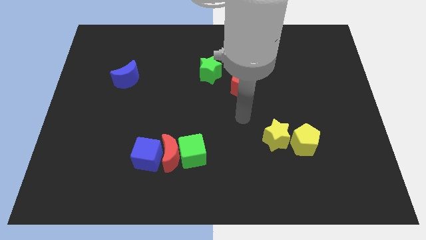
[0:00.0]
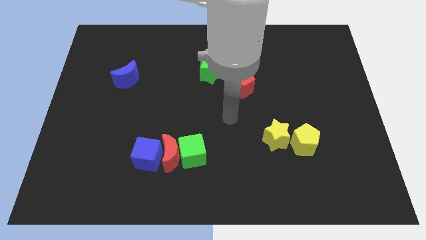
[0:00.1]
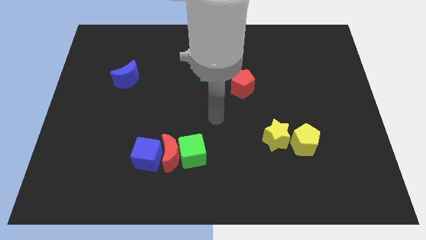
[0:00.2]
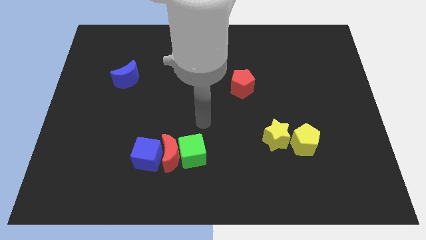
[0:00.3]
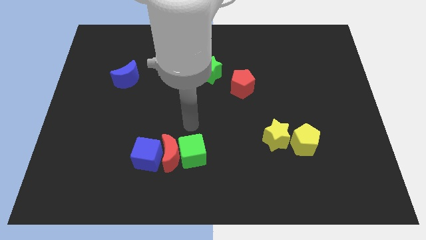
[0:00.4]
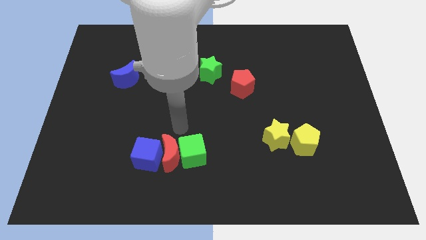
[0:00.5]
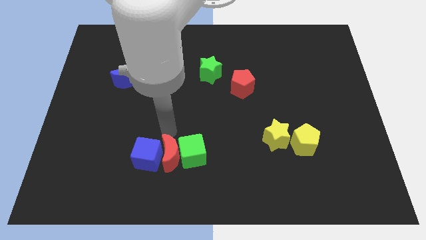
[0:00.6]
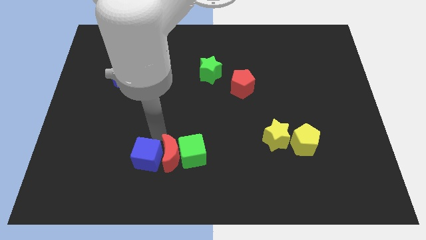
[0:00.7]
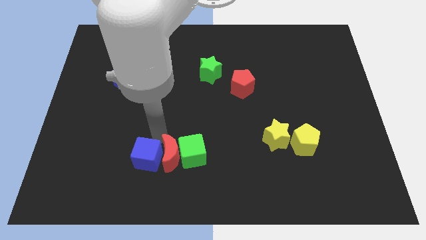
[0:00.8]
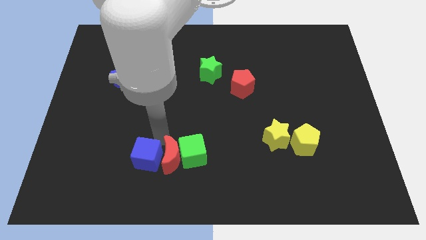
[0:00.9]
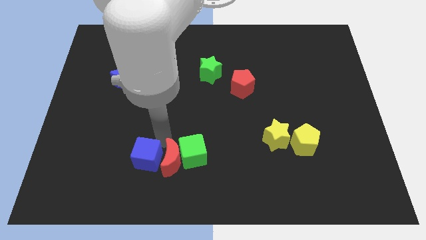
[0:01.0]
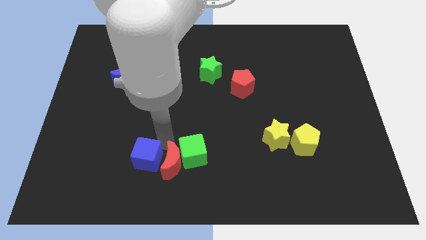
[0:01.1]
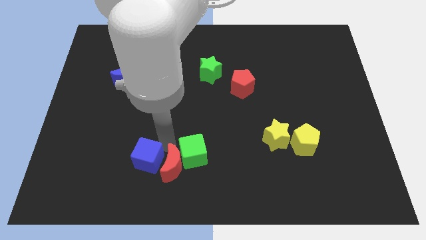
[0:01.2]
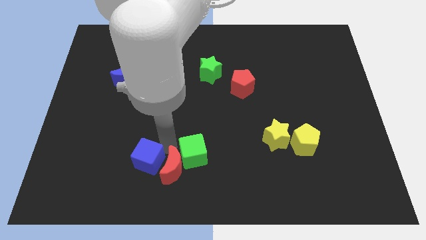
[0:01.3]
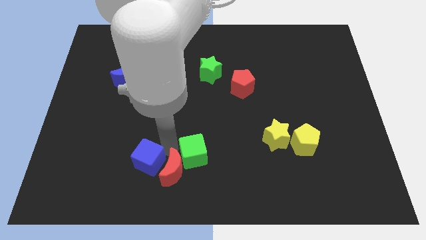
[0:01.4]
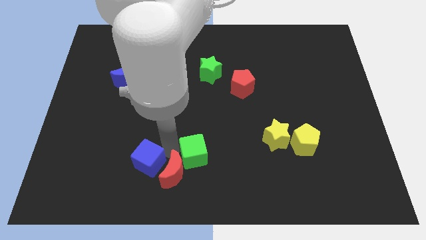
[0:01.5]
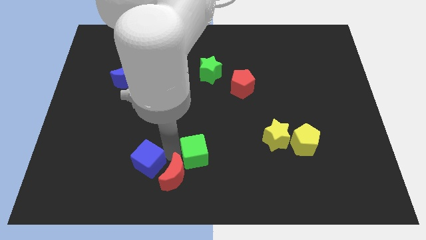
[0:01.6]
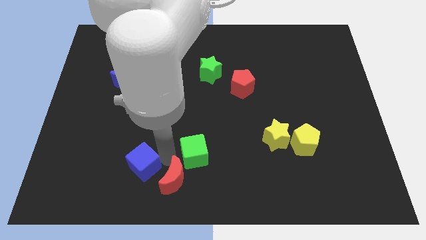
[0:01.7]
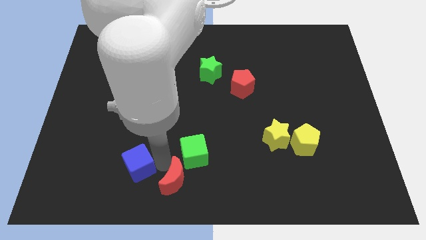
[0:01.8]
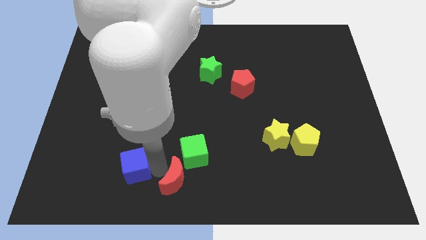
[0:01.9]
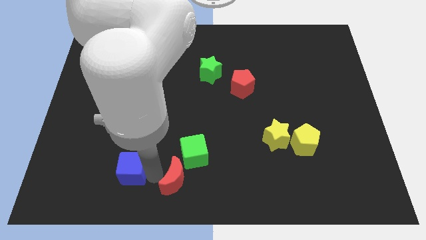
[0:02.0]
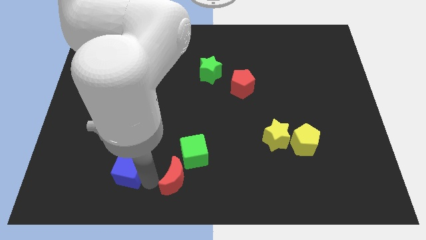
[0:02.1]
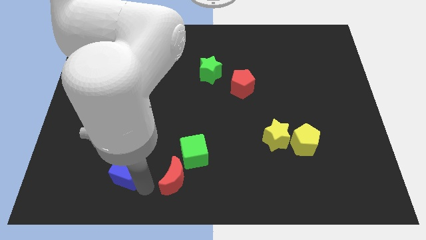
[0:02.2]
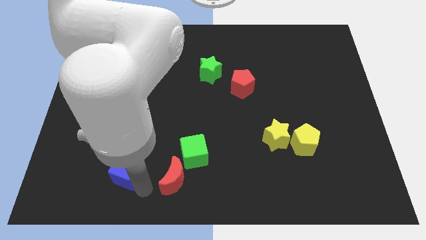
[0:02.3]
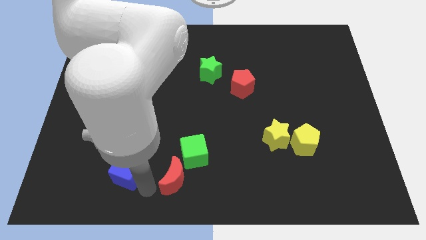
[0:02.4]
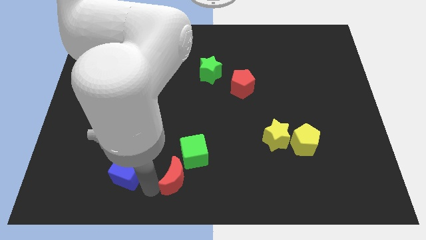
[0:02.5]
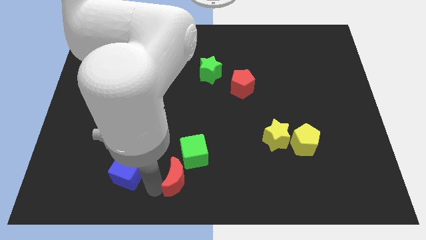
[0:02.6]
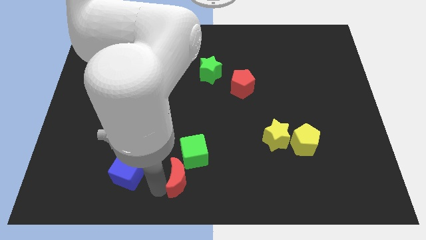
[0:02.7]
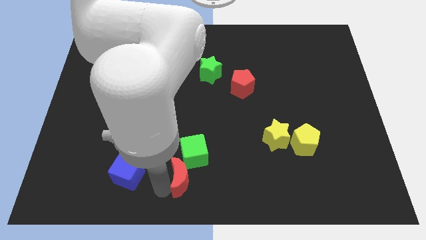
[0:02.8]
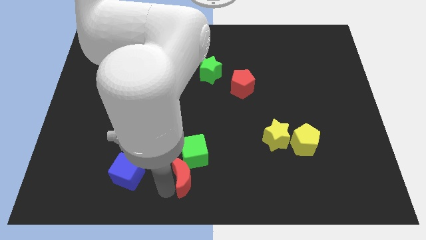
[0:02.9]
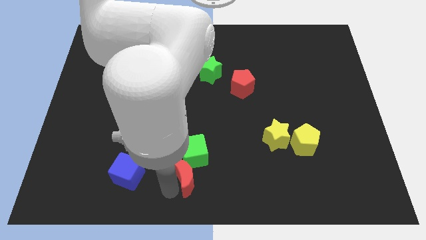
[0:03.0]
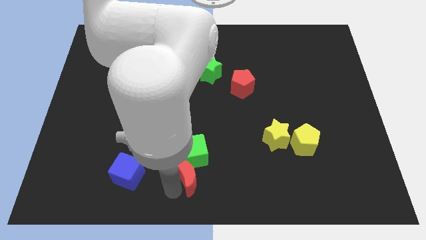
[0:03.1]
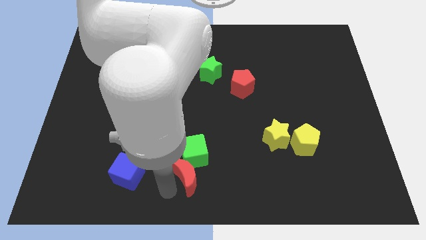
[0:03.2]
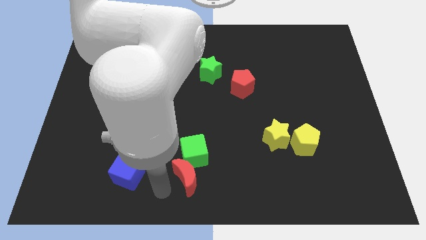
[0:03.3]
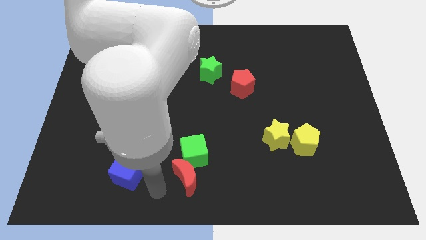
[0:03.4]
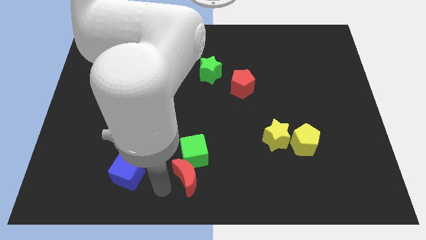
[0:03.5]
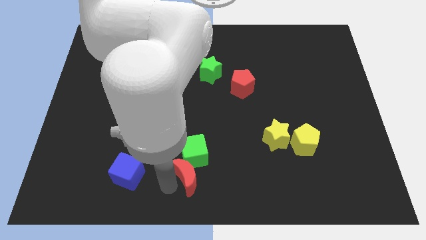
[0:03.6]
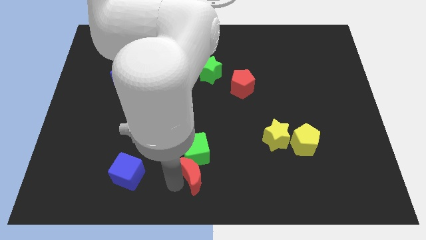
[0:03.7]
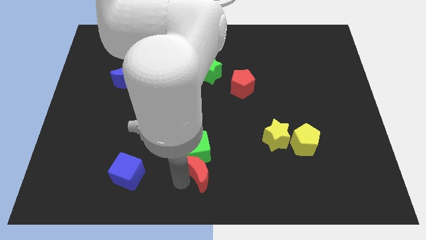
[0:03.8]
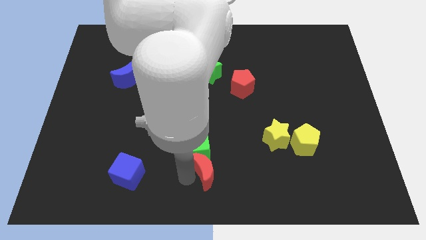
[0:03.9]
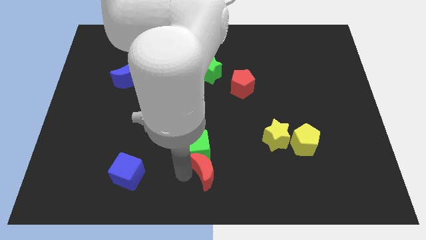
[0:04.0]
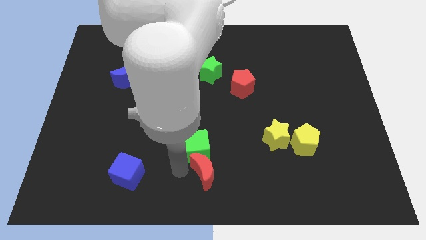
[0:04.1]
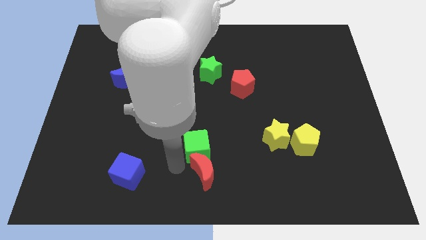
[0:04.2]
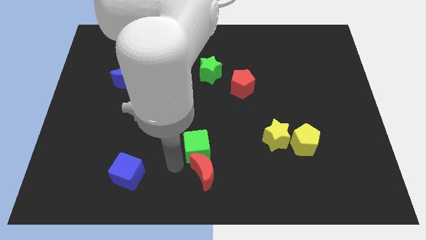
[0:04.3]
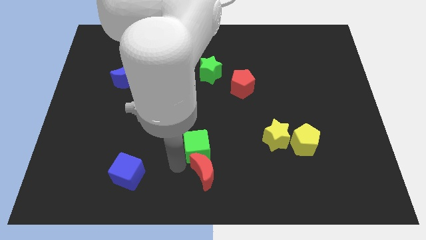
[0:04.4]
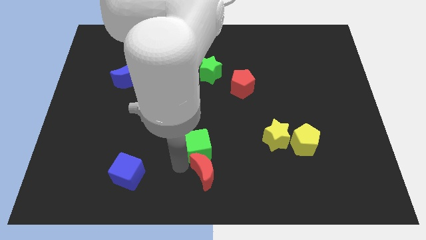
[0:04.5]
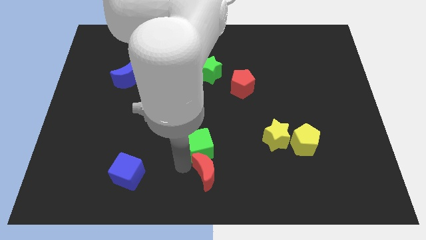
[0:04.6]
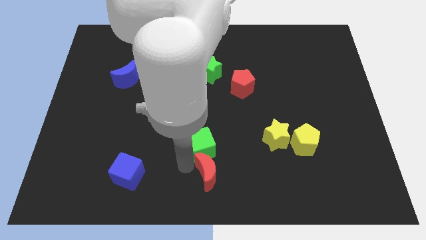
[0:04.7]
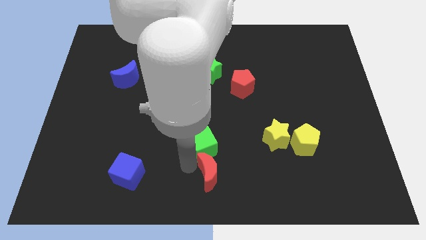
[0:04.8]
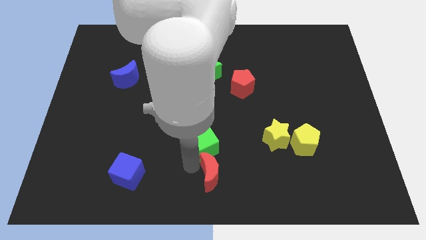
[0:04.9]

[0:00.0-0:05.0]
move the red moon away from the green cube and blue cube

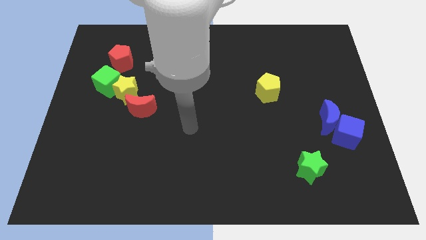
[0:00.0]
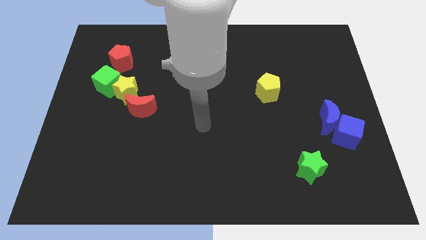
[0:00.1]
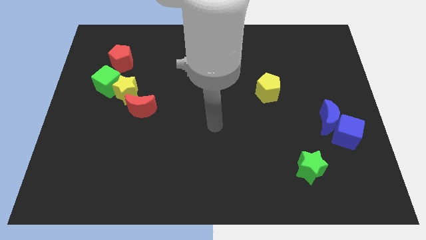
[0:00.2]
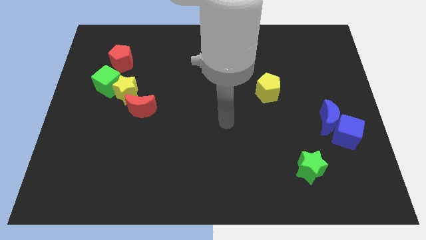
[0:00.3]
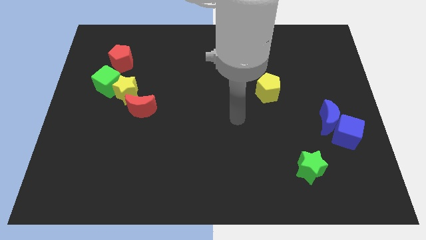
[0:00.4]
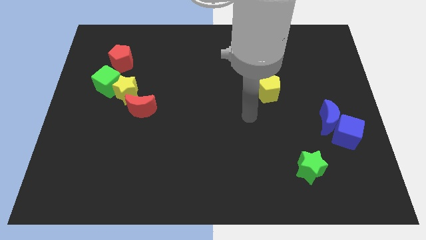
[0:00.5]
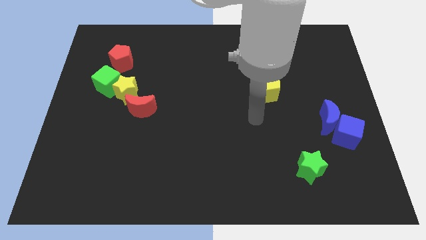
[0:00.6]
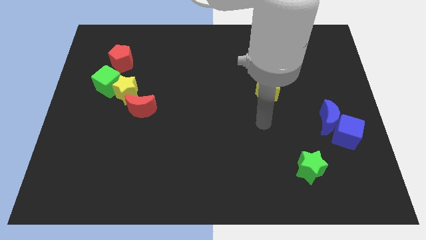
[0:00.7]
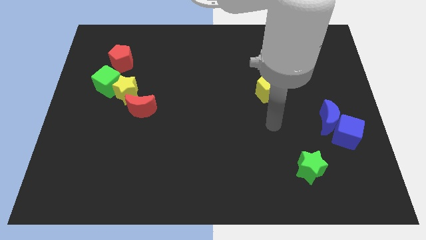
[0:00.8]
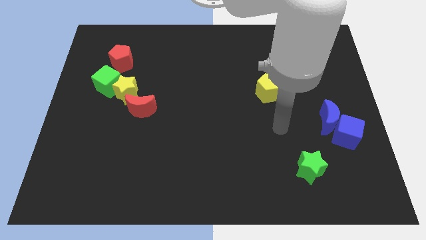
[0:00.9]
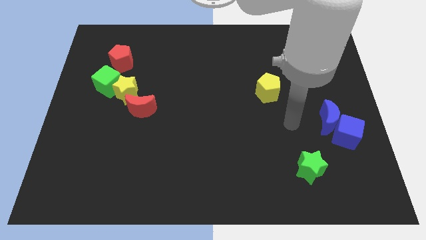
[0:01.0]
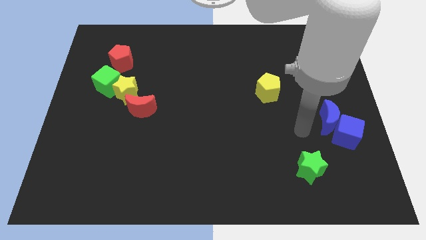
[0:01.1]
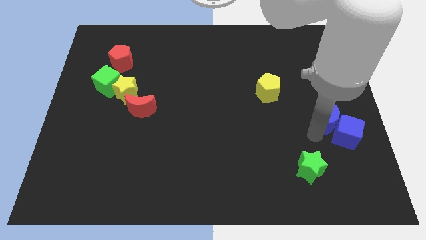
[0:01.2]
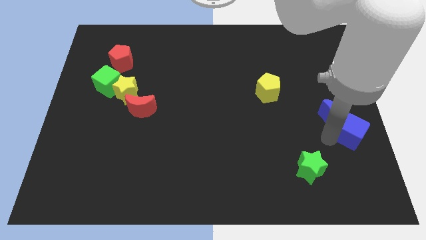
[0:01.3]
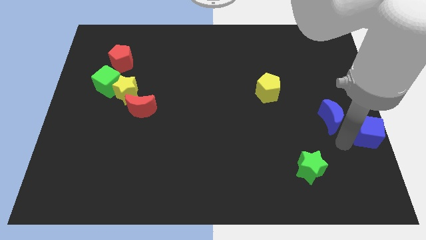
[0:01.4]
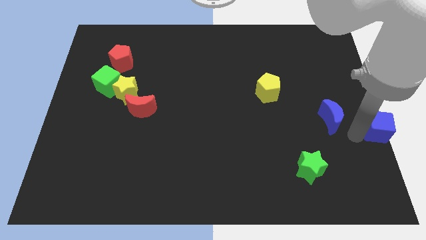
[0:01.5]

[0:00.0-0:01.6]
move the blue moon away from the blue cube

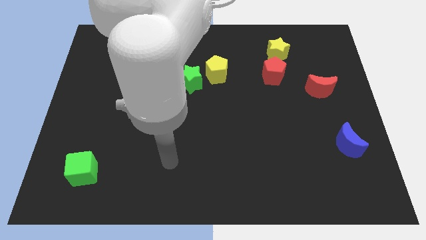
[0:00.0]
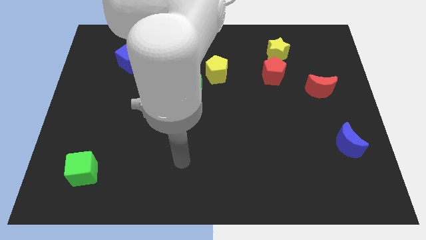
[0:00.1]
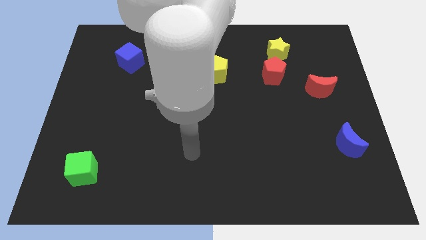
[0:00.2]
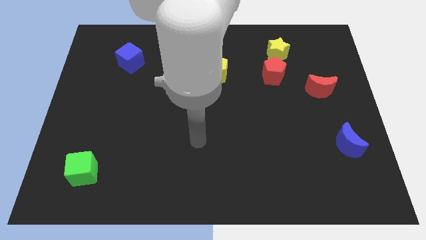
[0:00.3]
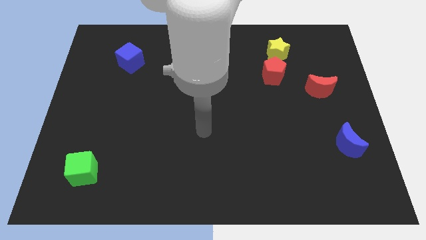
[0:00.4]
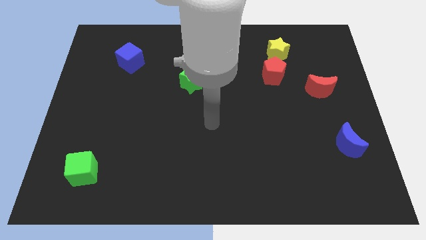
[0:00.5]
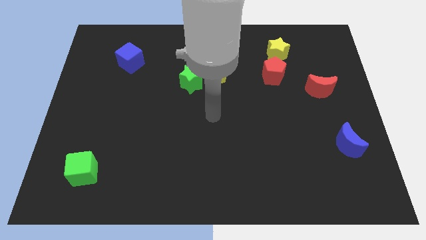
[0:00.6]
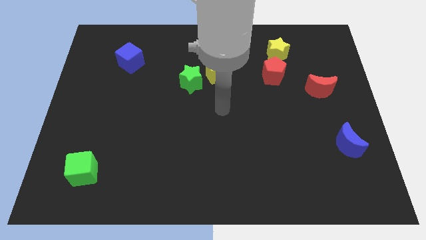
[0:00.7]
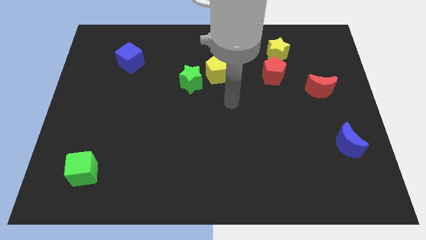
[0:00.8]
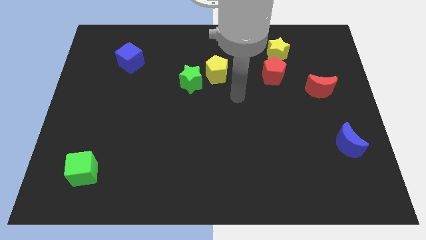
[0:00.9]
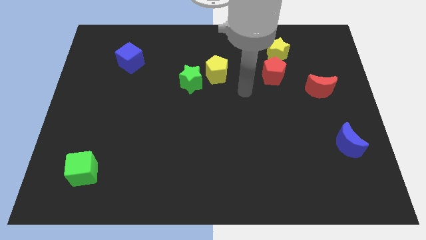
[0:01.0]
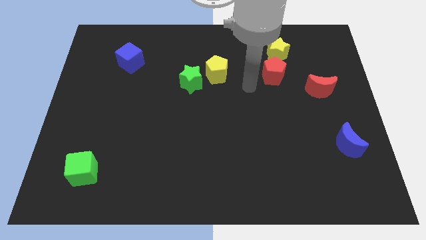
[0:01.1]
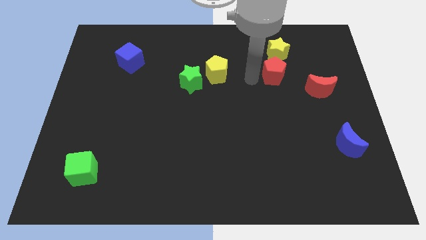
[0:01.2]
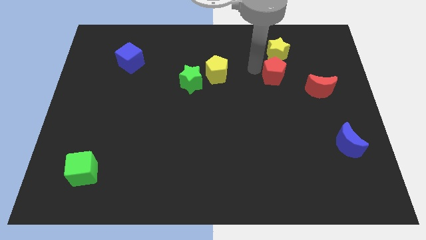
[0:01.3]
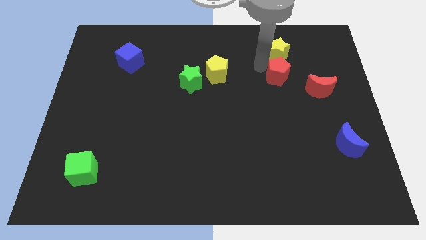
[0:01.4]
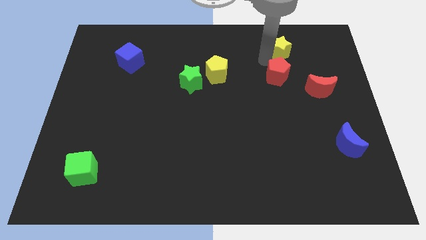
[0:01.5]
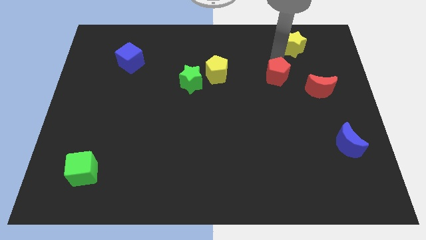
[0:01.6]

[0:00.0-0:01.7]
pull the red pentagon apart from the yellow star

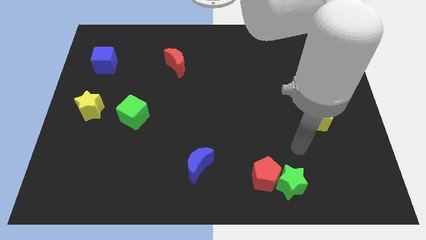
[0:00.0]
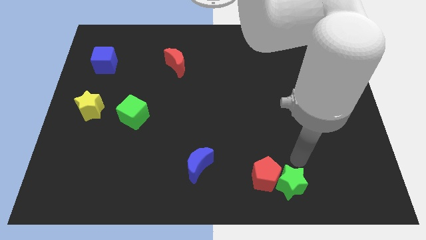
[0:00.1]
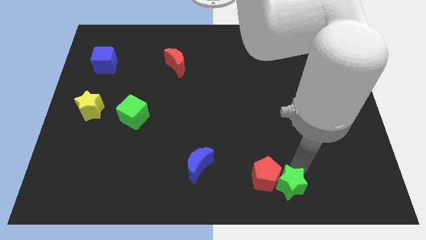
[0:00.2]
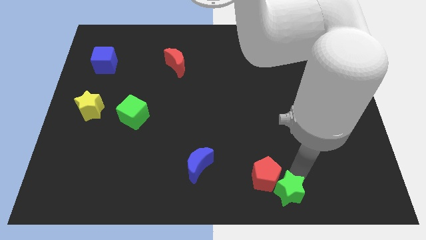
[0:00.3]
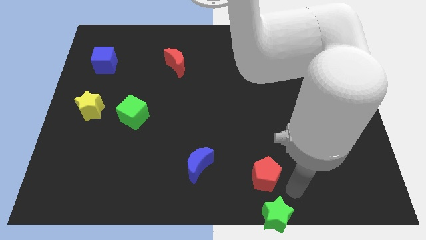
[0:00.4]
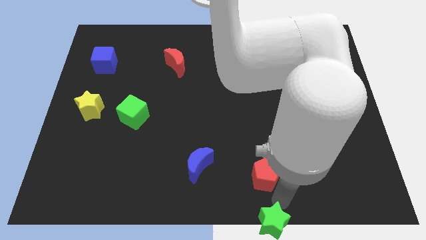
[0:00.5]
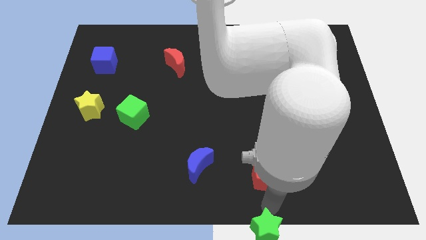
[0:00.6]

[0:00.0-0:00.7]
pull the red pentagon apart from the green star

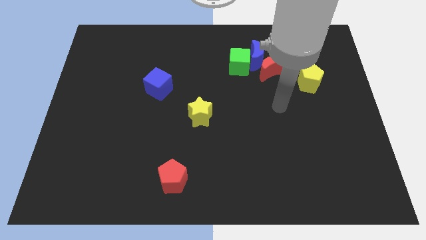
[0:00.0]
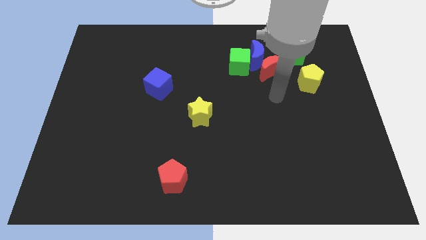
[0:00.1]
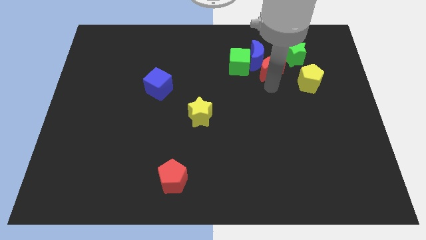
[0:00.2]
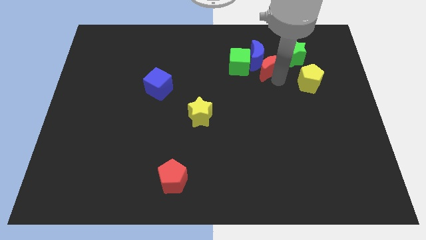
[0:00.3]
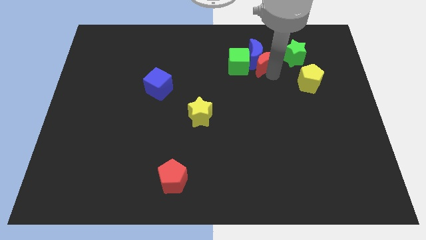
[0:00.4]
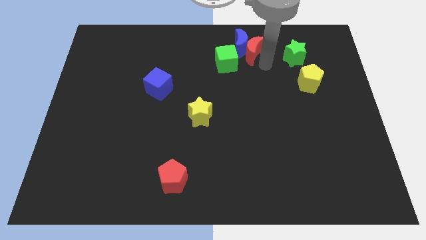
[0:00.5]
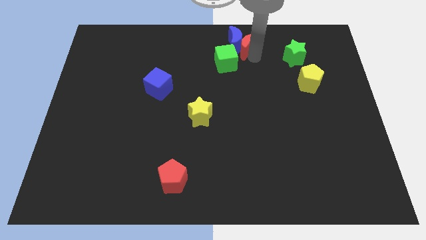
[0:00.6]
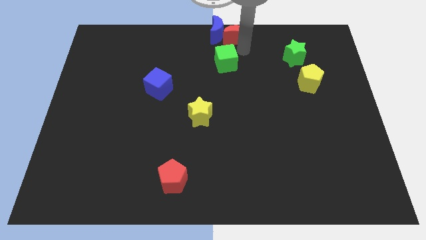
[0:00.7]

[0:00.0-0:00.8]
separate the green cube from the blue moon and red moon
